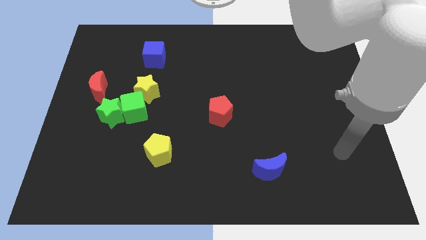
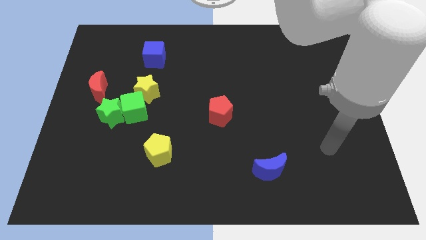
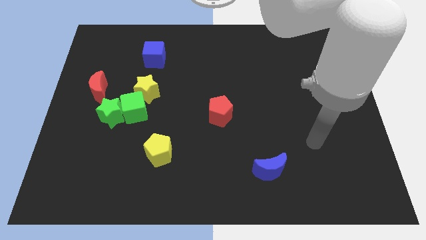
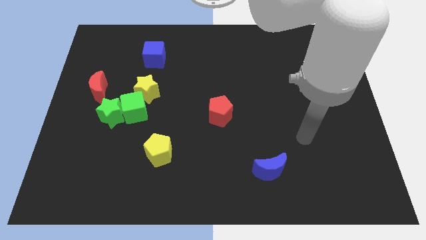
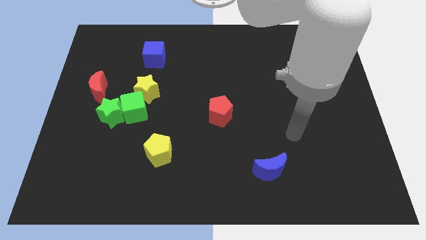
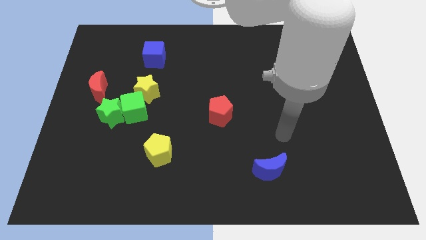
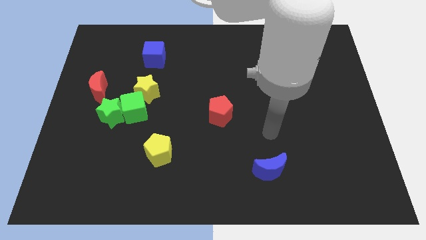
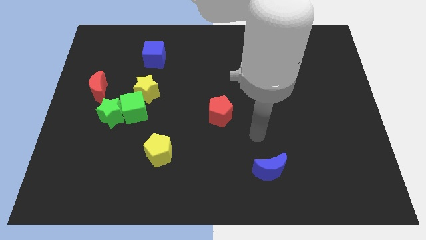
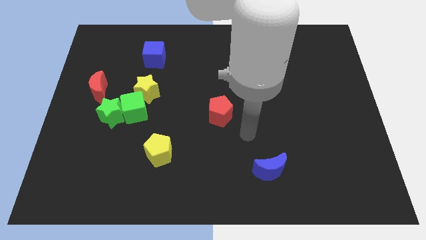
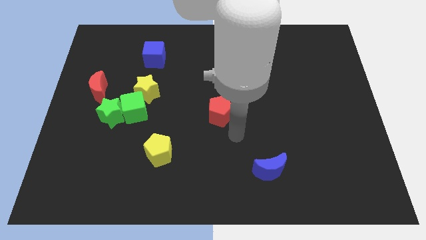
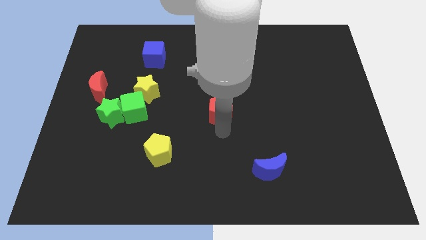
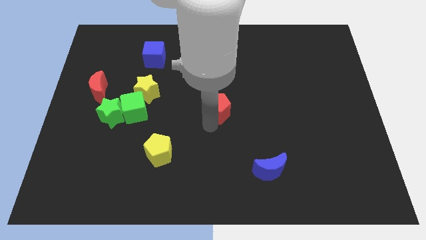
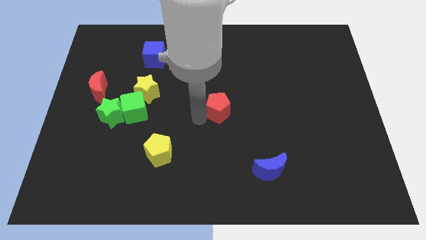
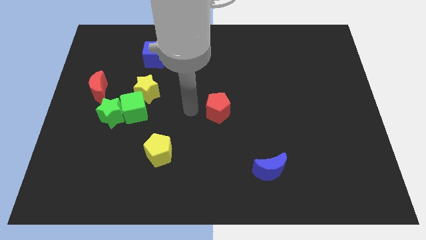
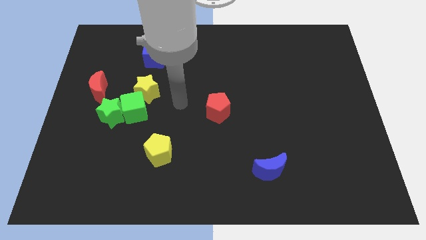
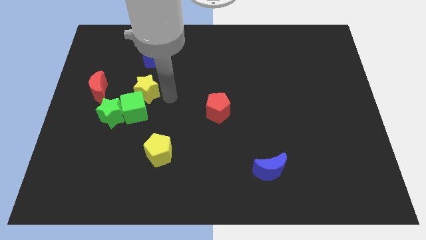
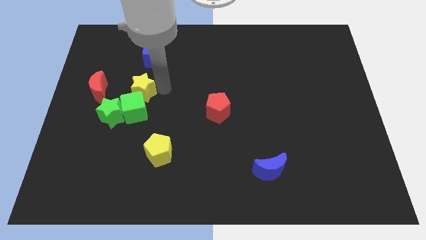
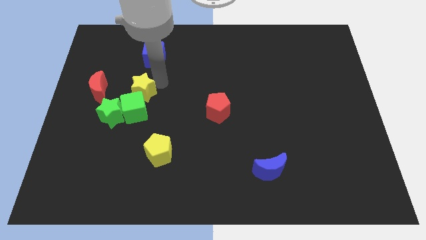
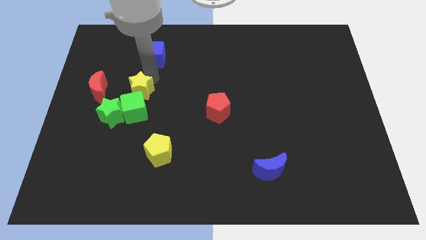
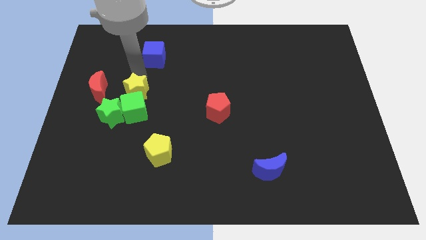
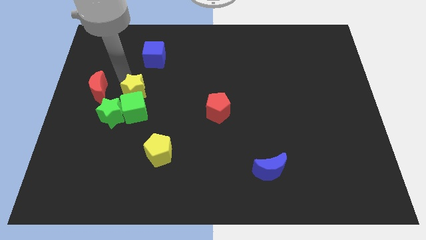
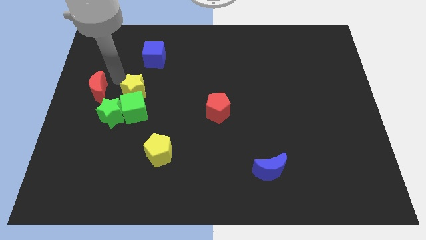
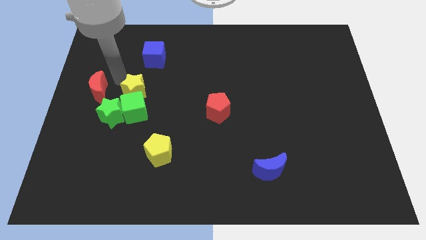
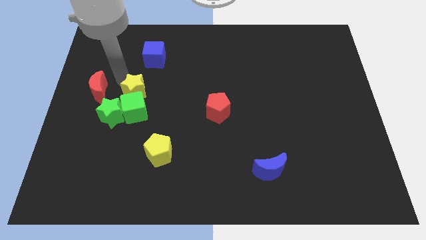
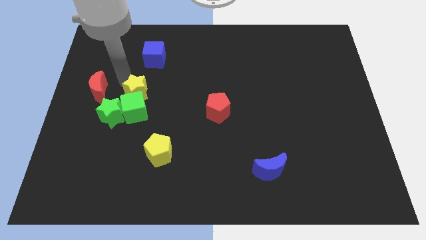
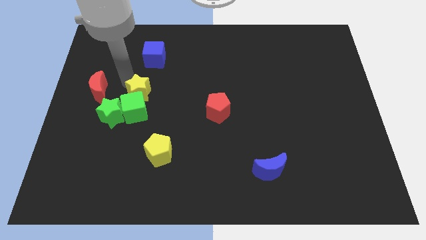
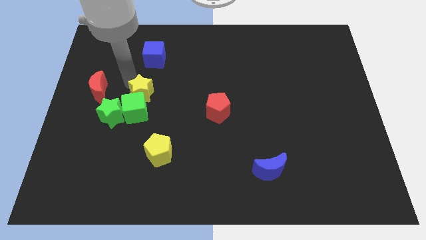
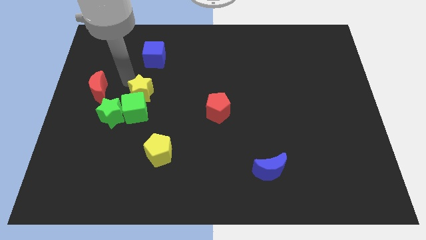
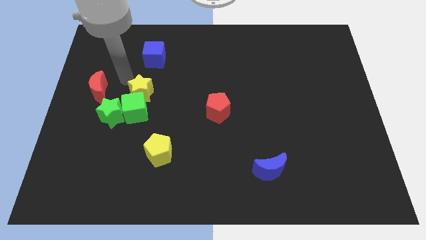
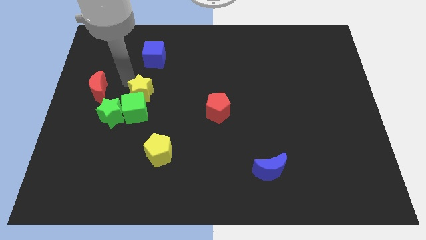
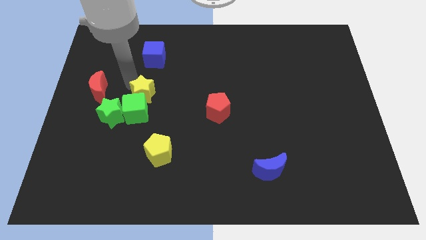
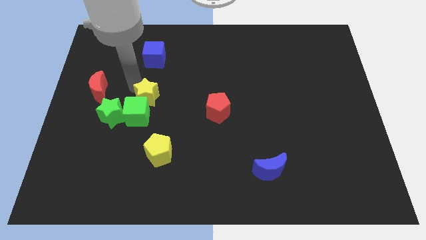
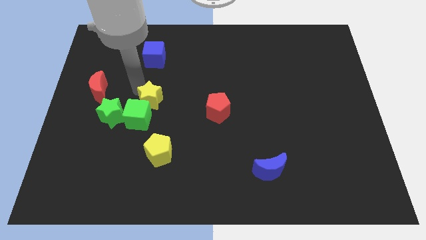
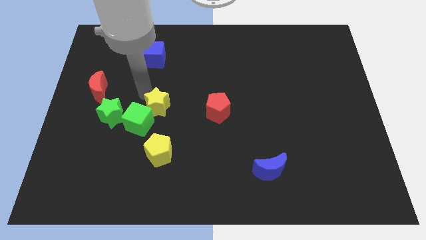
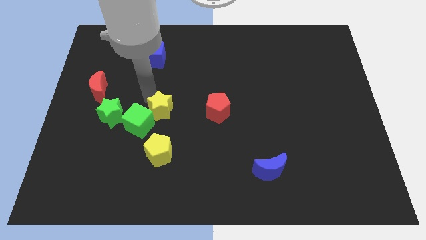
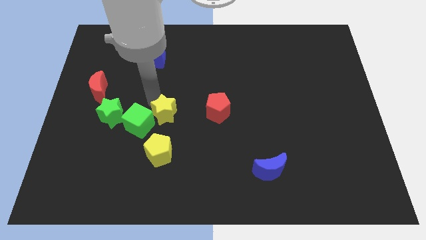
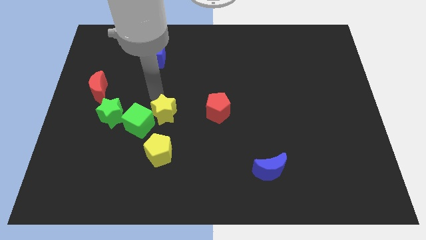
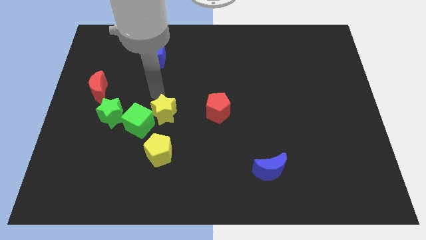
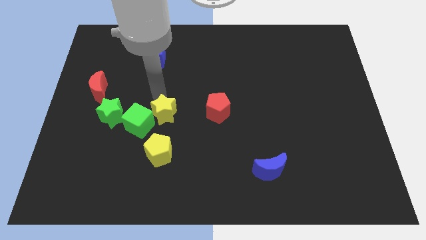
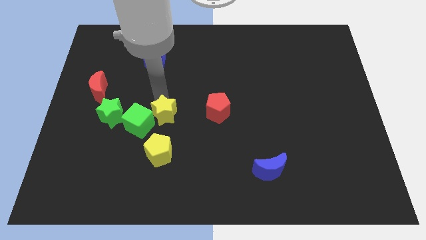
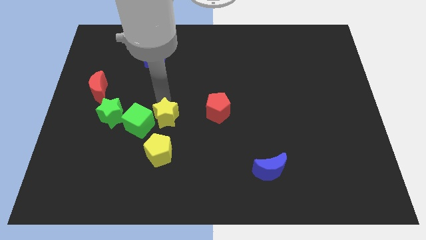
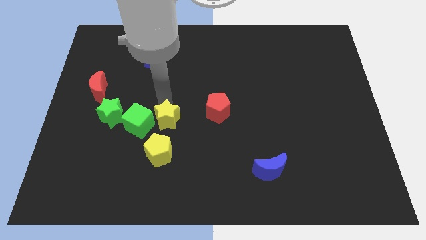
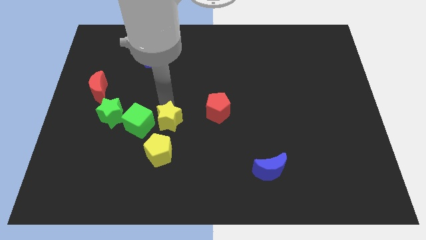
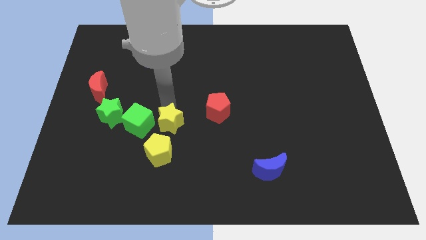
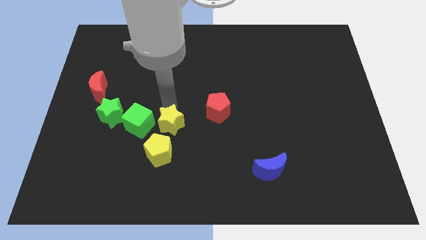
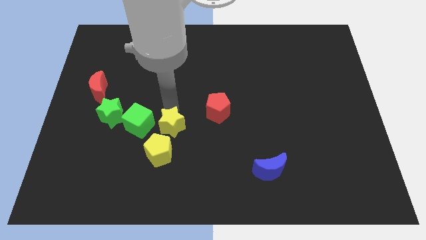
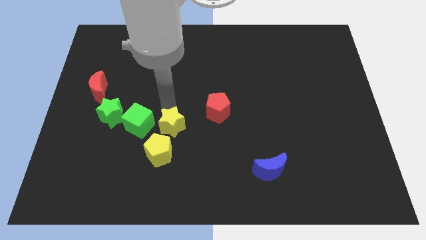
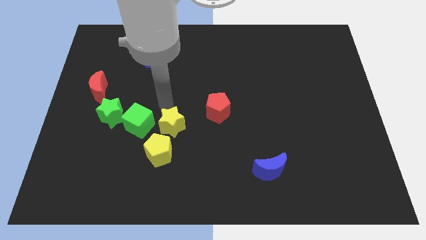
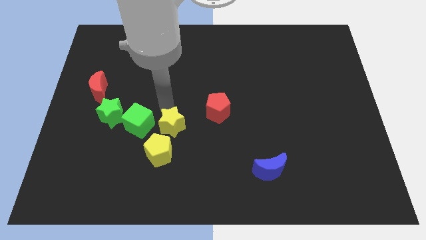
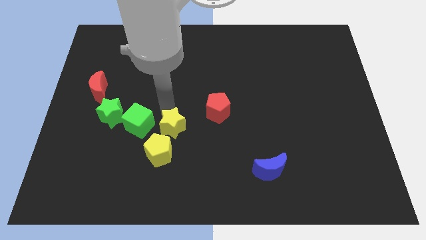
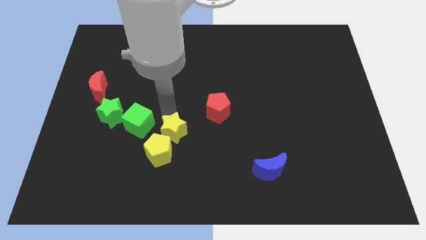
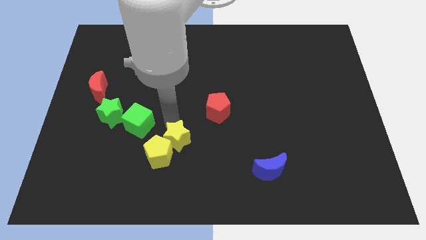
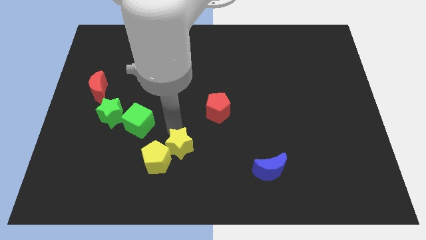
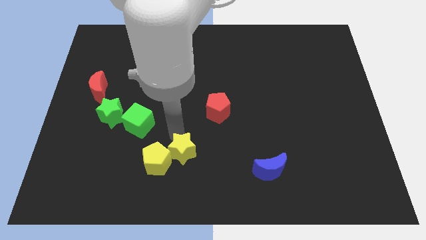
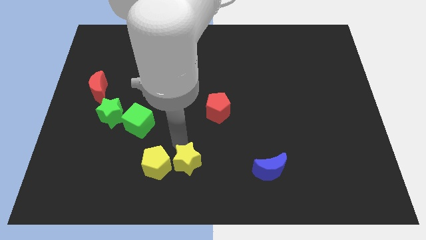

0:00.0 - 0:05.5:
slide the yellow star to the bottom
